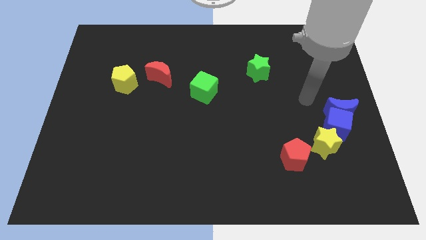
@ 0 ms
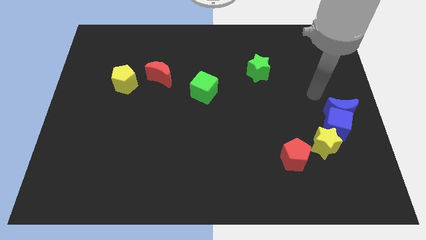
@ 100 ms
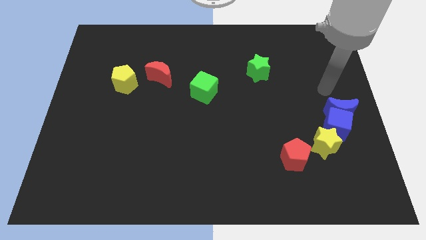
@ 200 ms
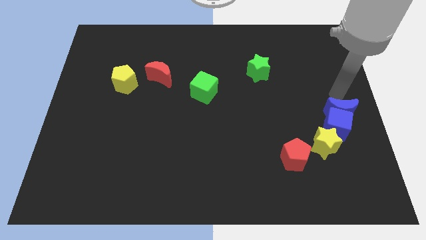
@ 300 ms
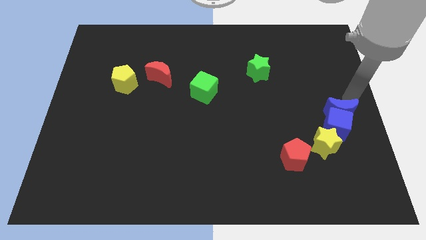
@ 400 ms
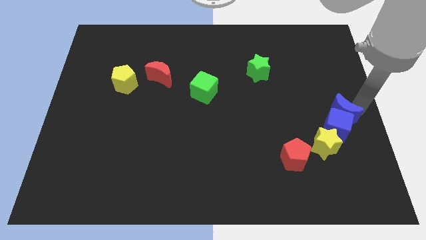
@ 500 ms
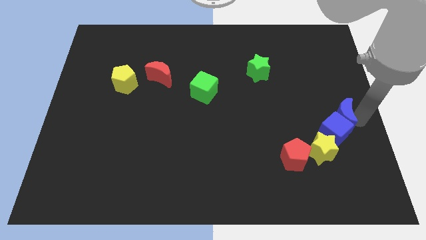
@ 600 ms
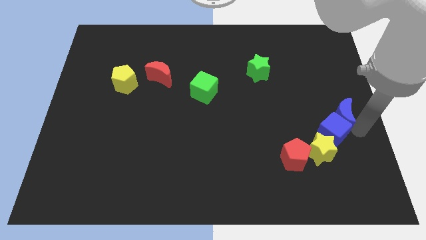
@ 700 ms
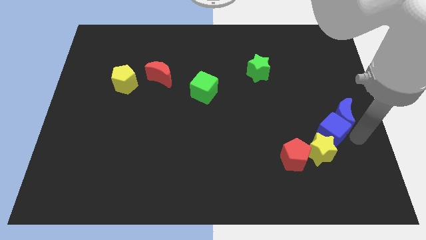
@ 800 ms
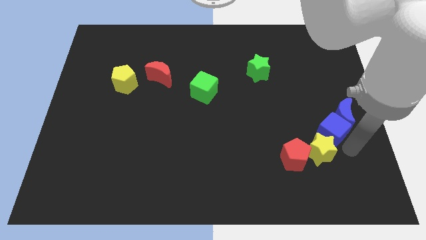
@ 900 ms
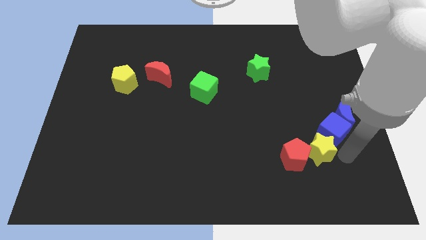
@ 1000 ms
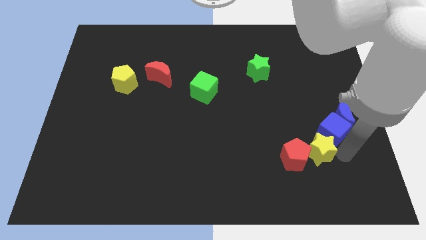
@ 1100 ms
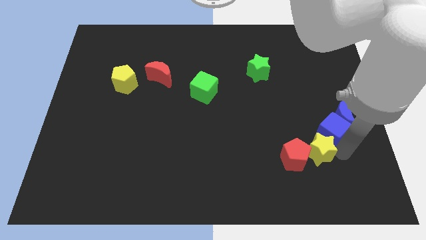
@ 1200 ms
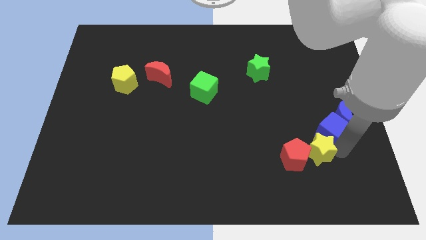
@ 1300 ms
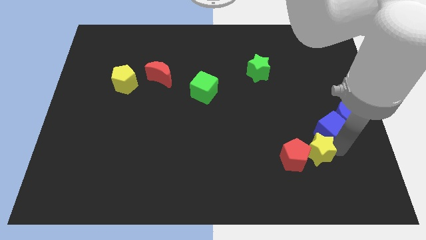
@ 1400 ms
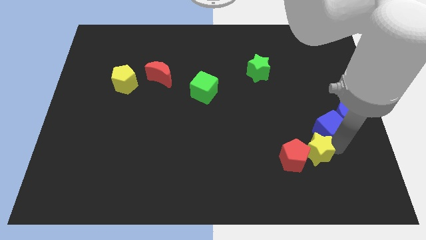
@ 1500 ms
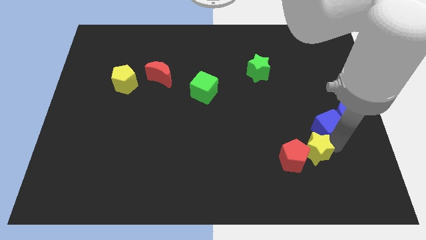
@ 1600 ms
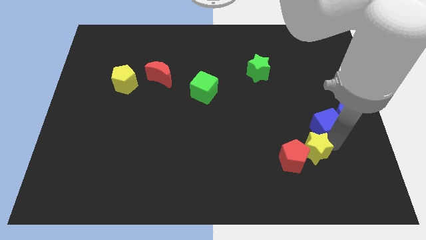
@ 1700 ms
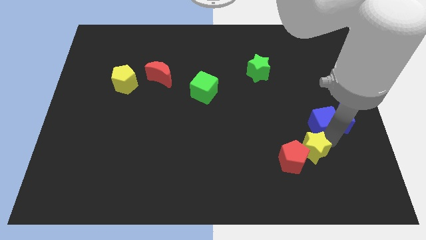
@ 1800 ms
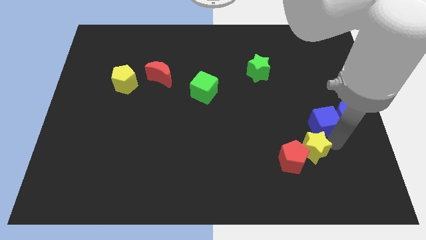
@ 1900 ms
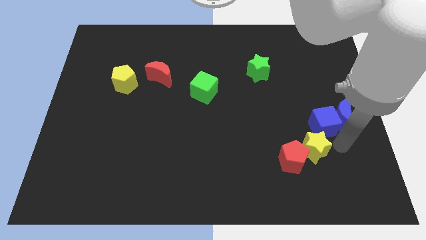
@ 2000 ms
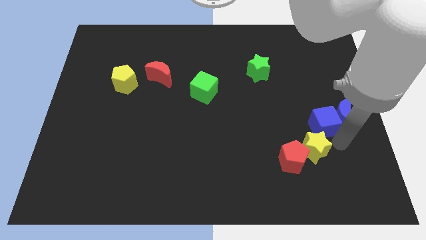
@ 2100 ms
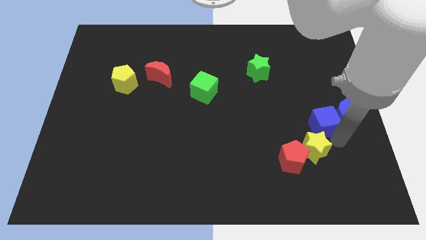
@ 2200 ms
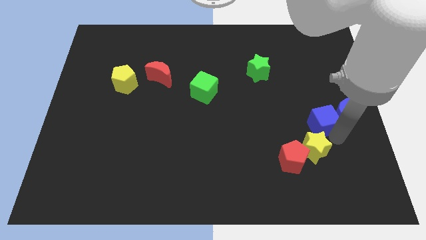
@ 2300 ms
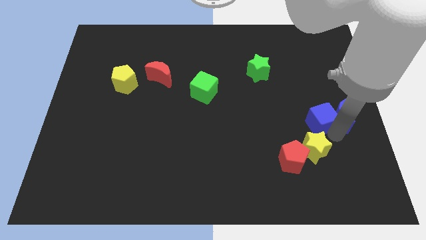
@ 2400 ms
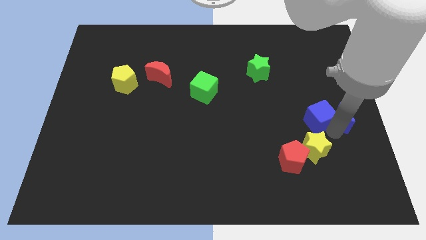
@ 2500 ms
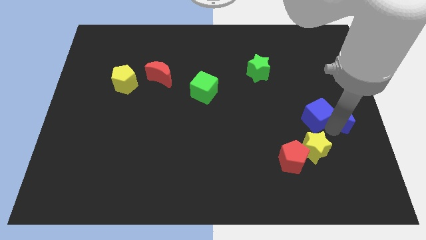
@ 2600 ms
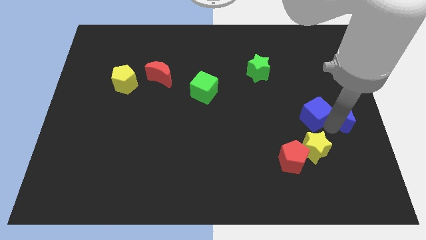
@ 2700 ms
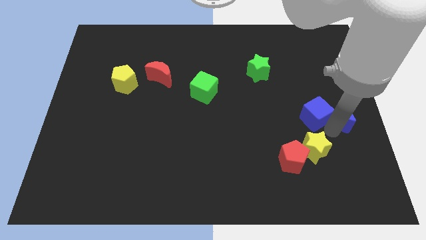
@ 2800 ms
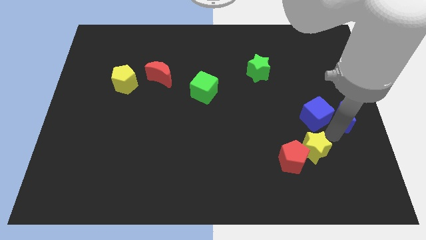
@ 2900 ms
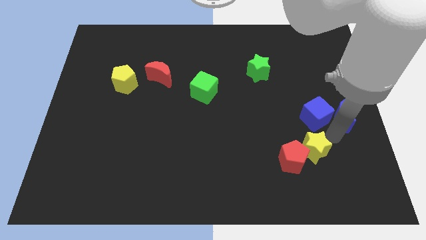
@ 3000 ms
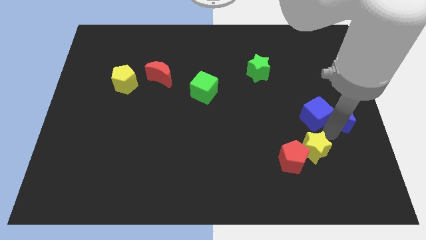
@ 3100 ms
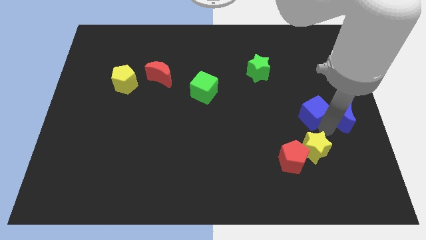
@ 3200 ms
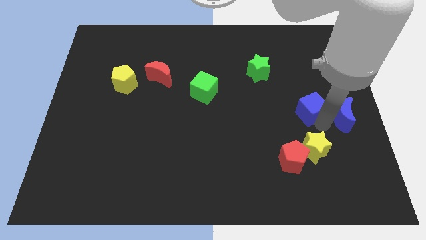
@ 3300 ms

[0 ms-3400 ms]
slide the blue cube a bit diagonally upwards and to the left

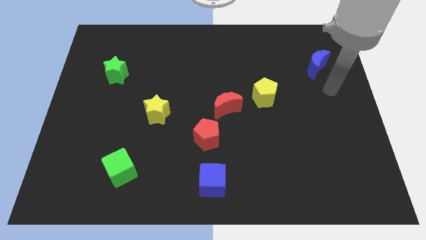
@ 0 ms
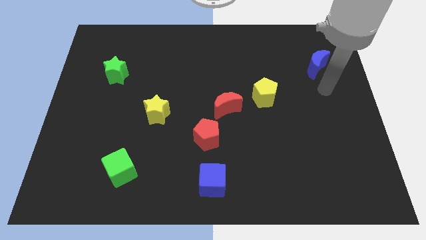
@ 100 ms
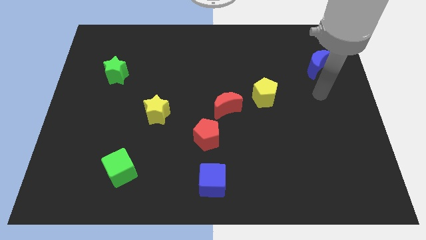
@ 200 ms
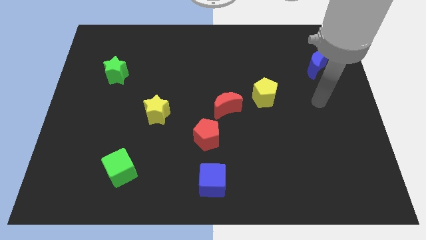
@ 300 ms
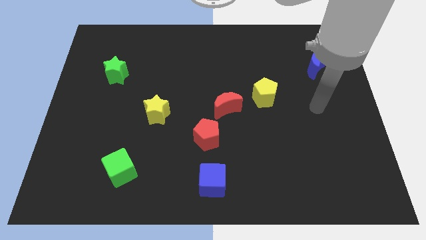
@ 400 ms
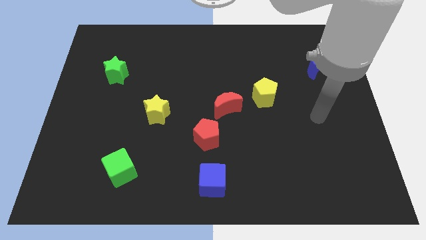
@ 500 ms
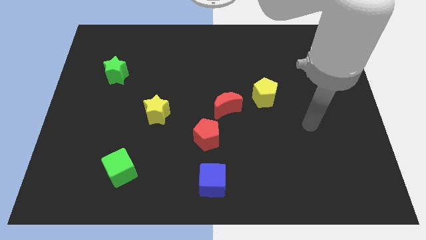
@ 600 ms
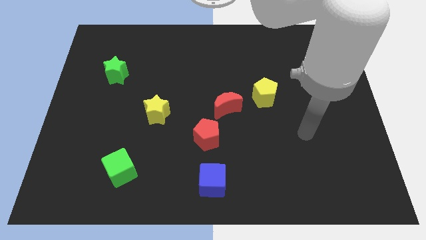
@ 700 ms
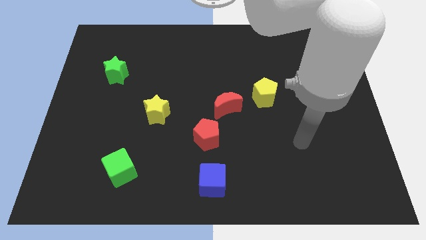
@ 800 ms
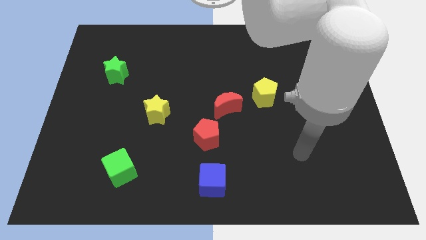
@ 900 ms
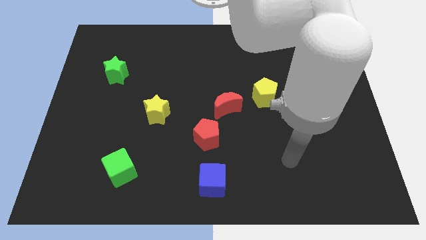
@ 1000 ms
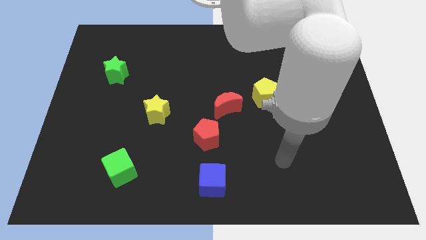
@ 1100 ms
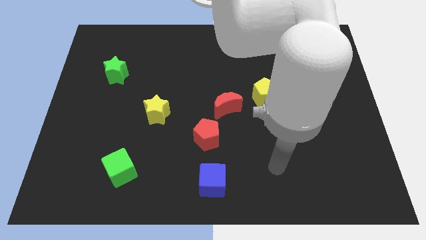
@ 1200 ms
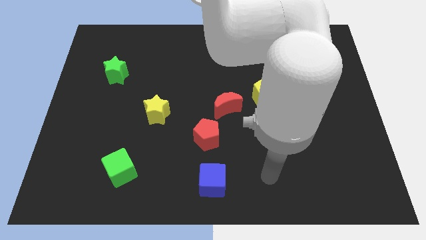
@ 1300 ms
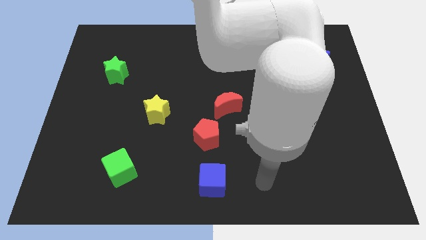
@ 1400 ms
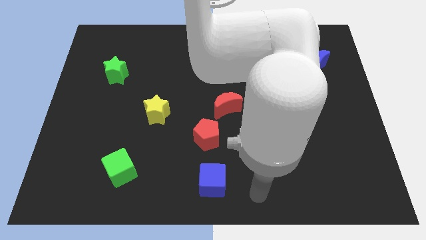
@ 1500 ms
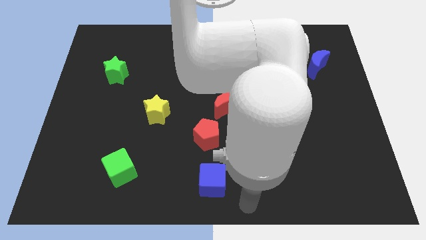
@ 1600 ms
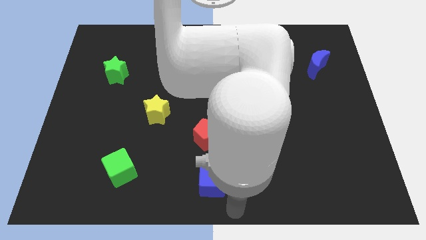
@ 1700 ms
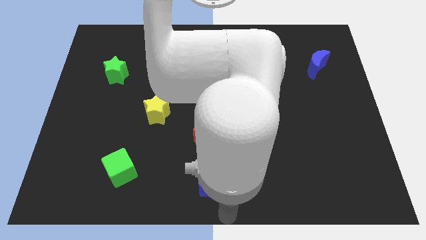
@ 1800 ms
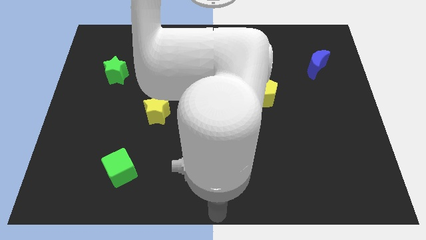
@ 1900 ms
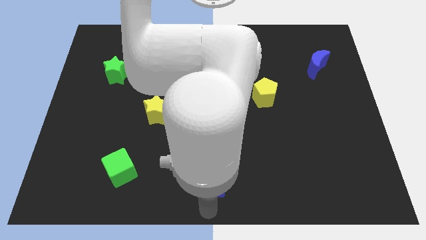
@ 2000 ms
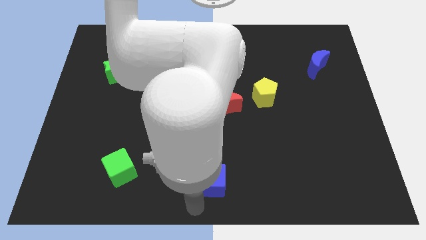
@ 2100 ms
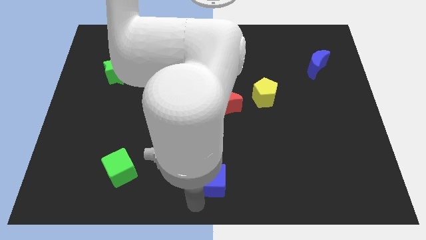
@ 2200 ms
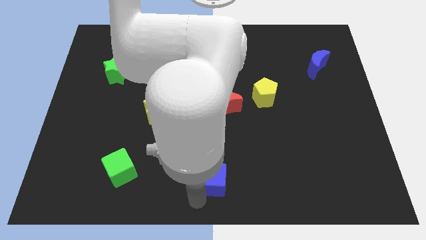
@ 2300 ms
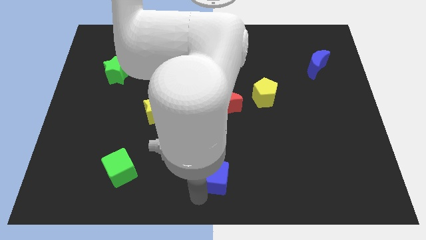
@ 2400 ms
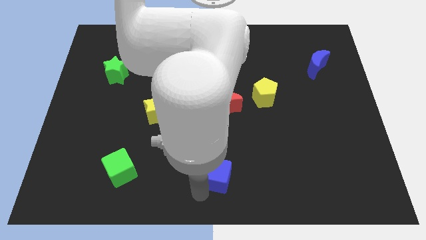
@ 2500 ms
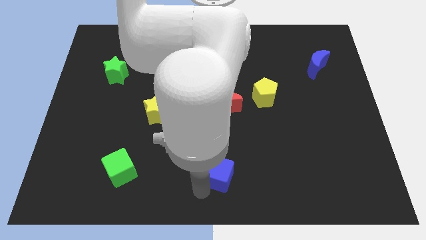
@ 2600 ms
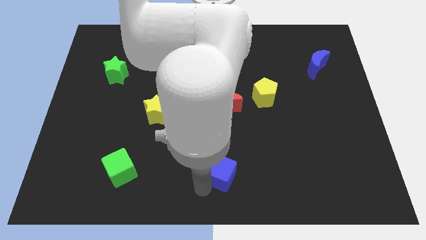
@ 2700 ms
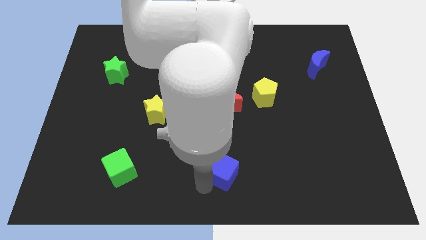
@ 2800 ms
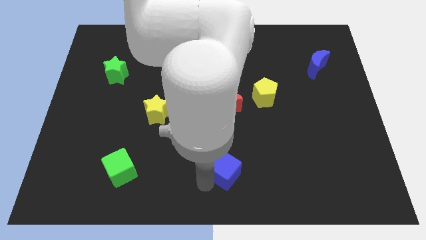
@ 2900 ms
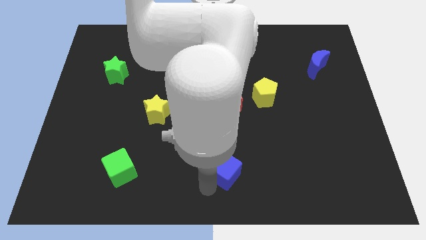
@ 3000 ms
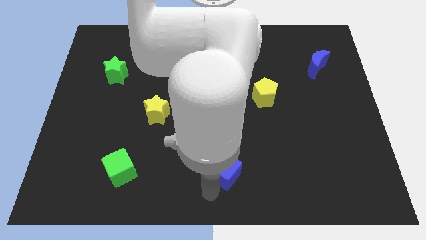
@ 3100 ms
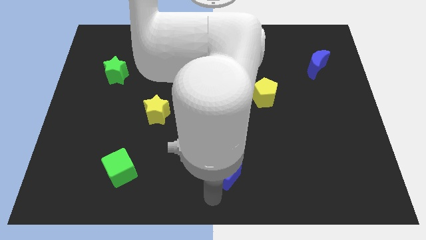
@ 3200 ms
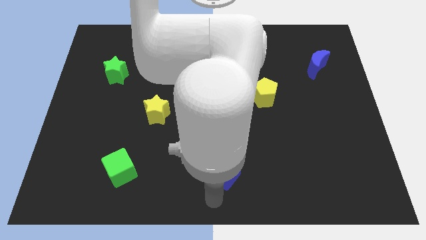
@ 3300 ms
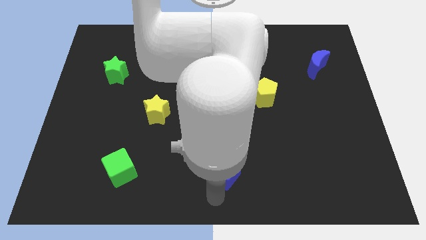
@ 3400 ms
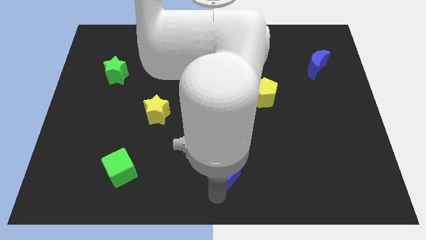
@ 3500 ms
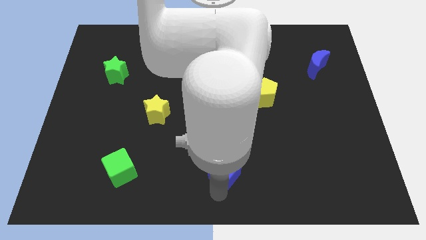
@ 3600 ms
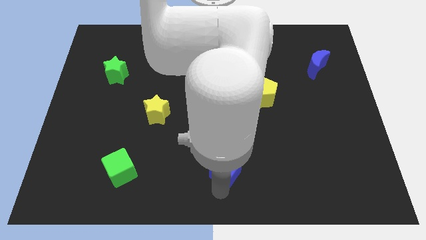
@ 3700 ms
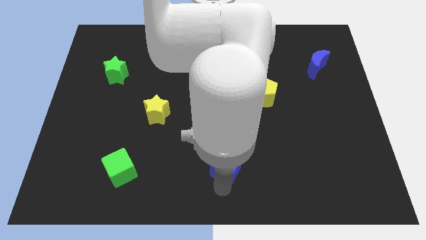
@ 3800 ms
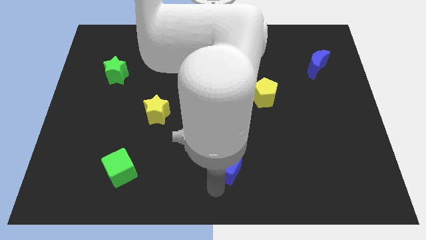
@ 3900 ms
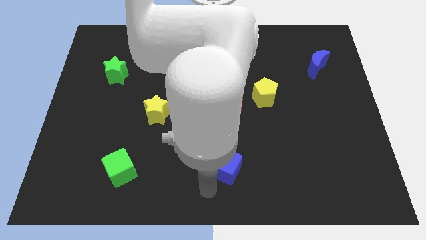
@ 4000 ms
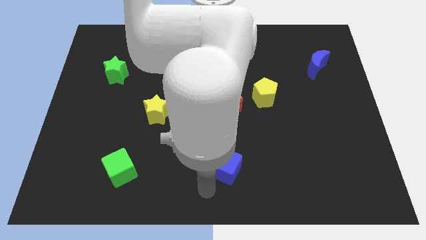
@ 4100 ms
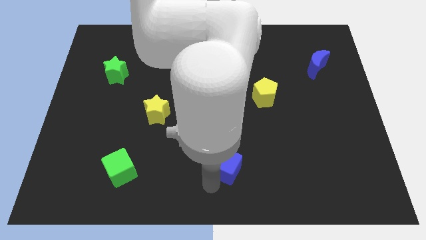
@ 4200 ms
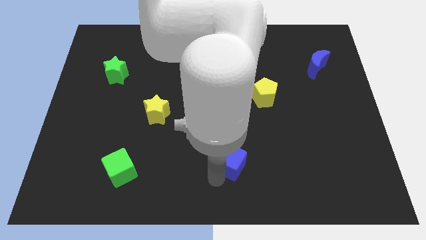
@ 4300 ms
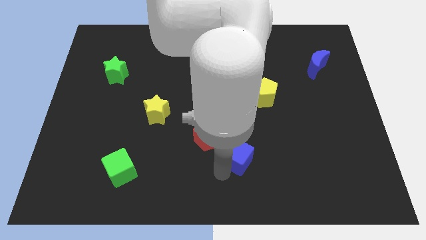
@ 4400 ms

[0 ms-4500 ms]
slide the blue cube upwards and to the right diagonally slightly

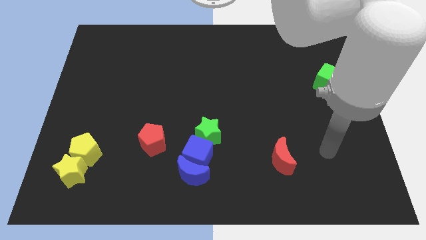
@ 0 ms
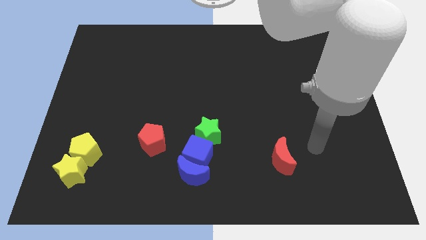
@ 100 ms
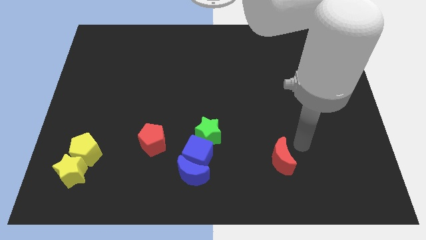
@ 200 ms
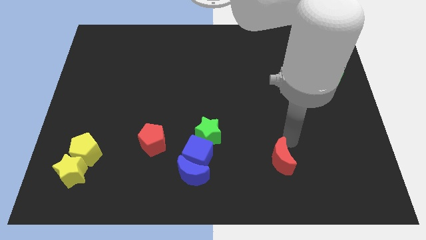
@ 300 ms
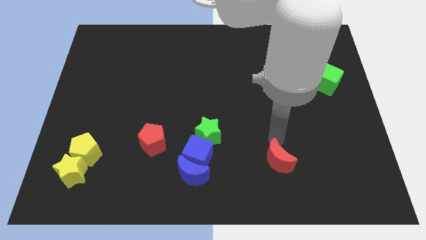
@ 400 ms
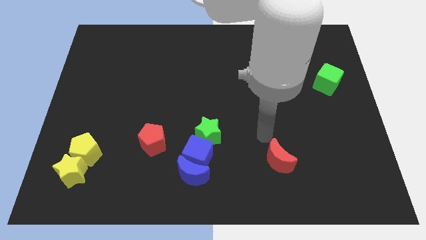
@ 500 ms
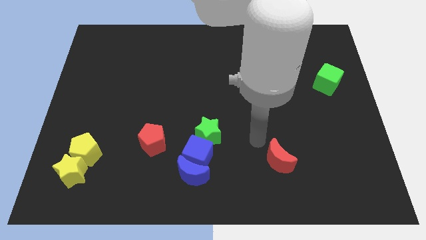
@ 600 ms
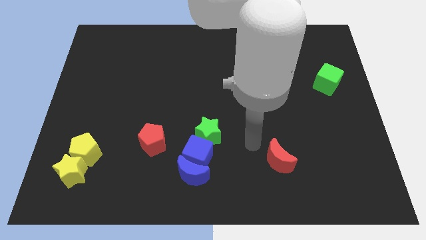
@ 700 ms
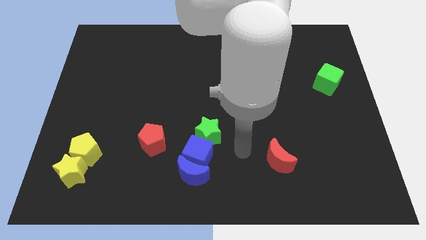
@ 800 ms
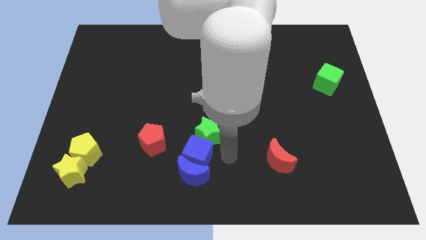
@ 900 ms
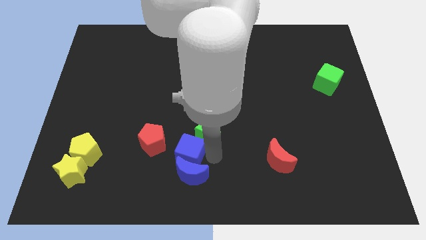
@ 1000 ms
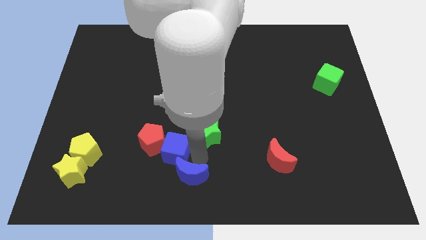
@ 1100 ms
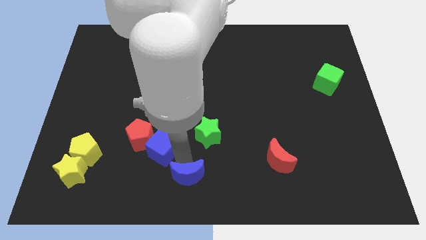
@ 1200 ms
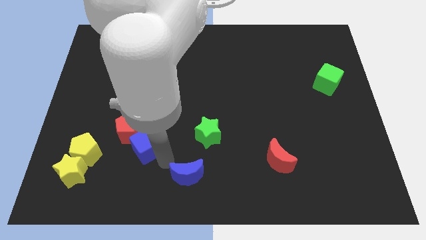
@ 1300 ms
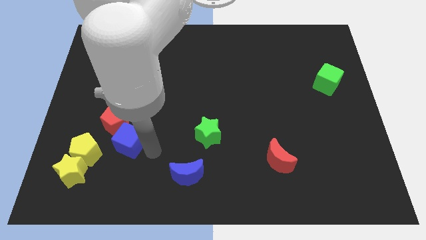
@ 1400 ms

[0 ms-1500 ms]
push the red pentagon a little upwards and then to the left
